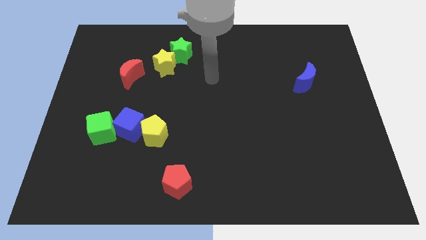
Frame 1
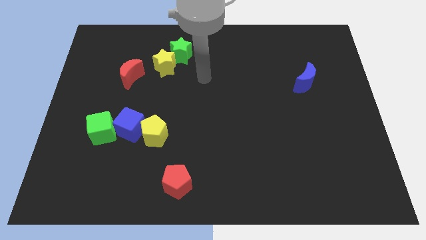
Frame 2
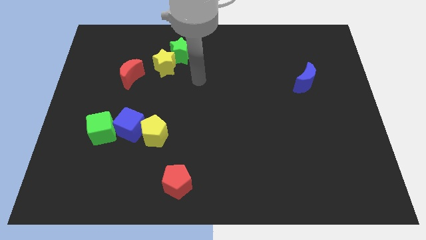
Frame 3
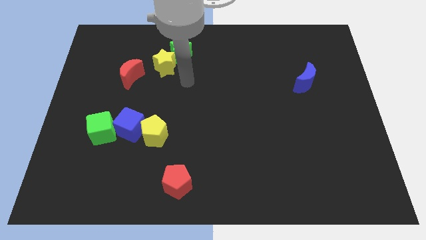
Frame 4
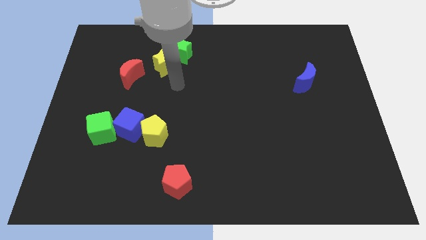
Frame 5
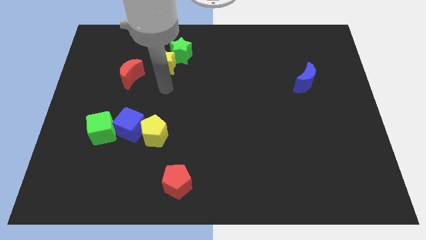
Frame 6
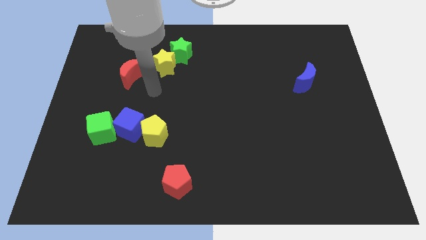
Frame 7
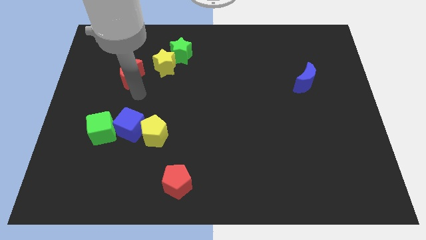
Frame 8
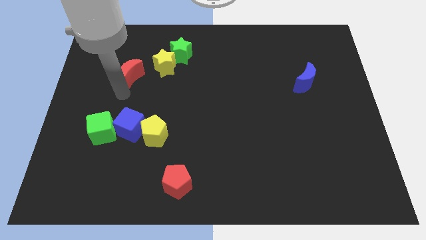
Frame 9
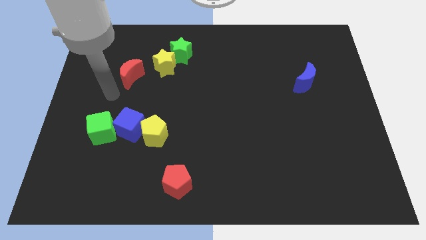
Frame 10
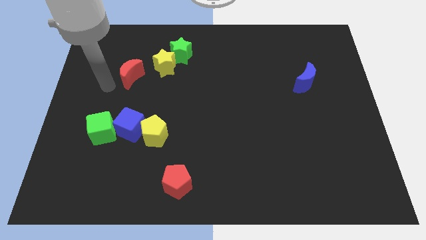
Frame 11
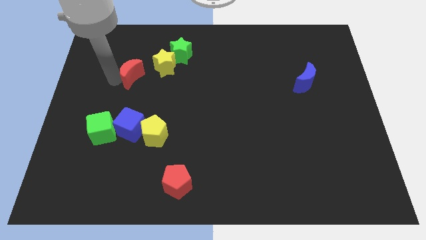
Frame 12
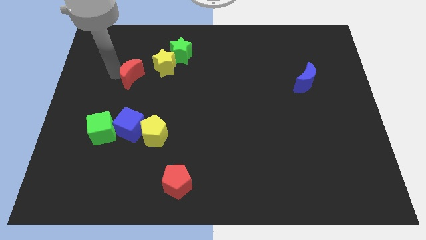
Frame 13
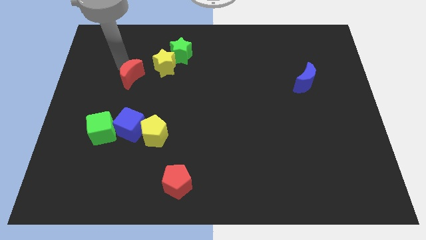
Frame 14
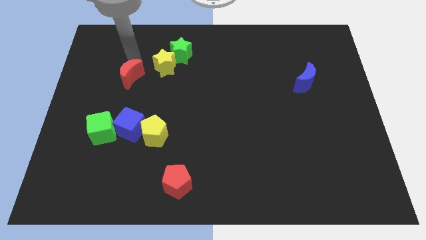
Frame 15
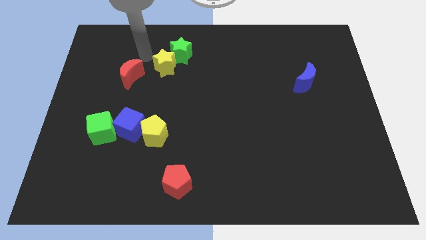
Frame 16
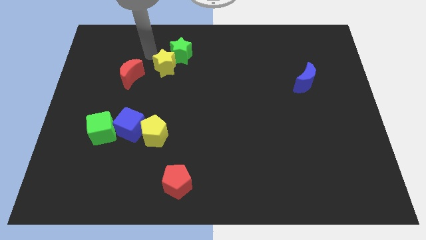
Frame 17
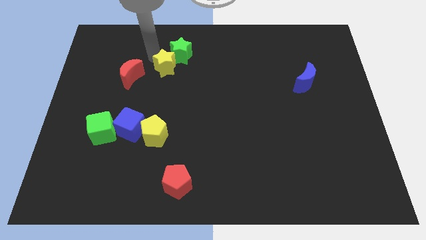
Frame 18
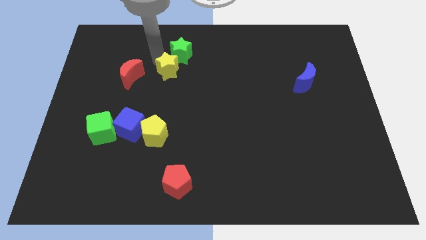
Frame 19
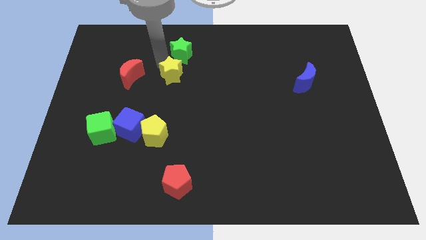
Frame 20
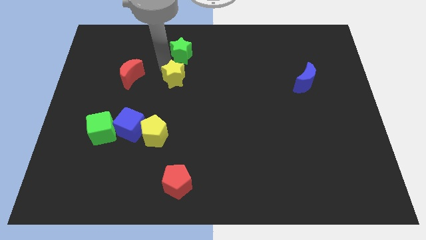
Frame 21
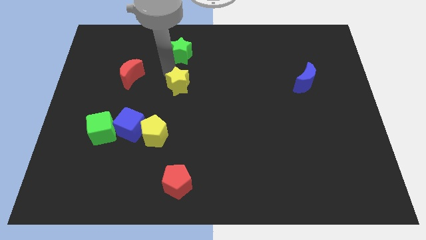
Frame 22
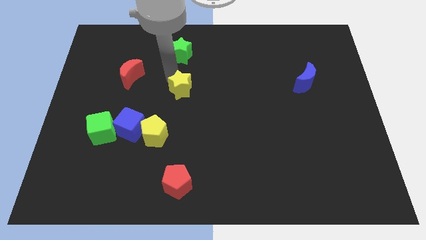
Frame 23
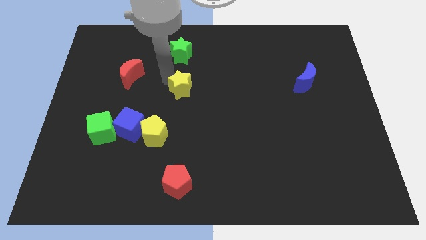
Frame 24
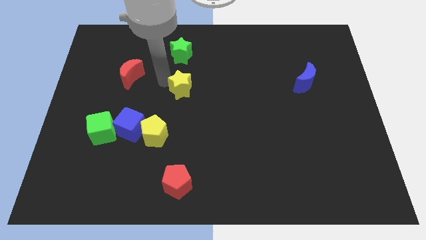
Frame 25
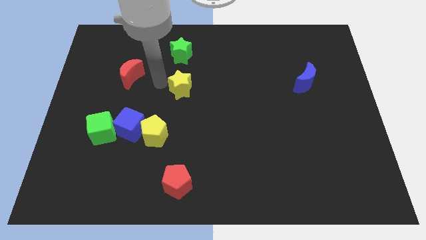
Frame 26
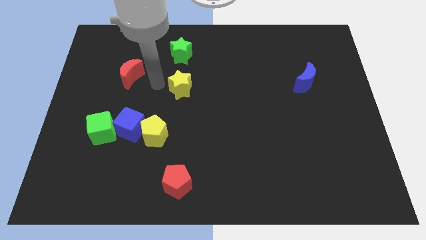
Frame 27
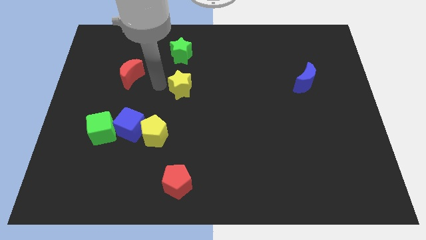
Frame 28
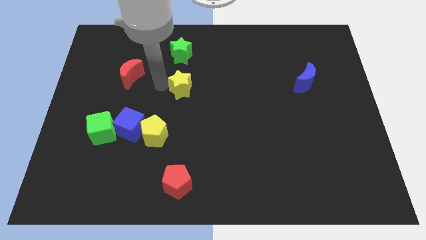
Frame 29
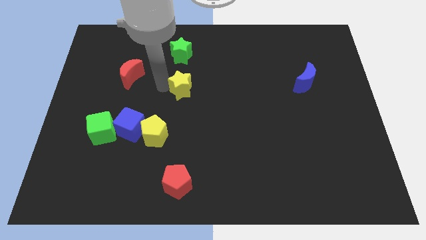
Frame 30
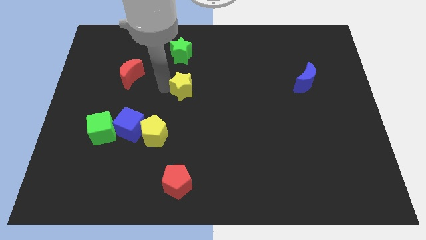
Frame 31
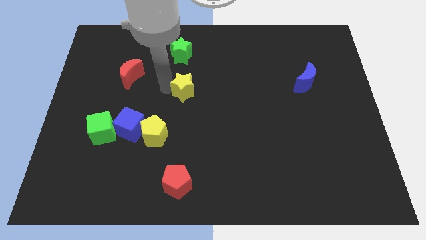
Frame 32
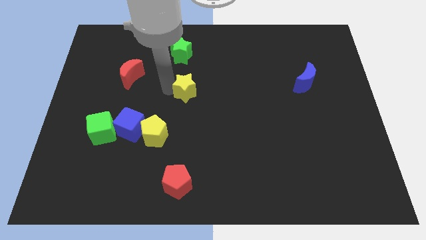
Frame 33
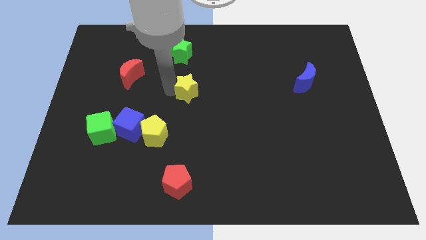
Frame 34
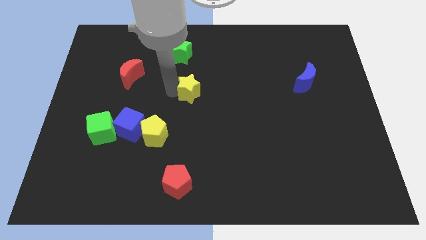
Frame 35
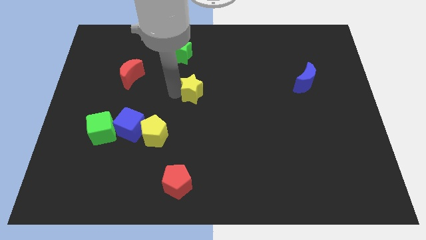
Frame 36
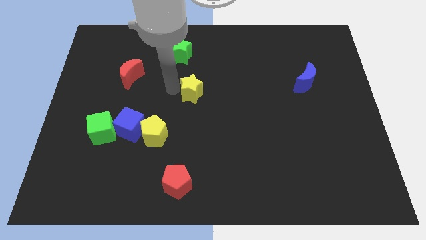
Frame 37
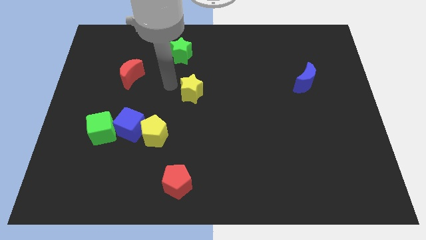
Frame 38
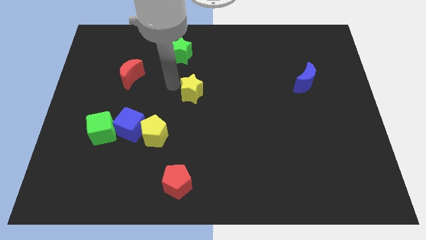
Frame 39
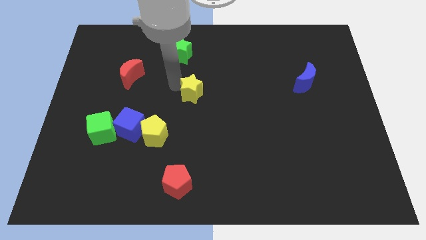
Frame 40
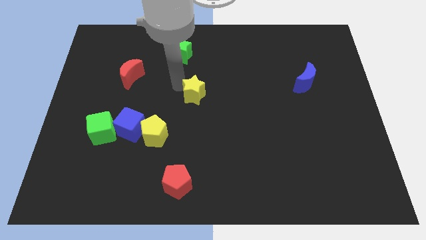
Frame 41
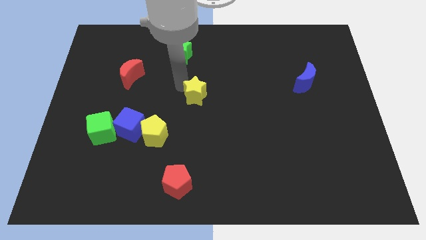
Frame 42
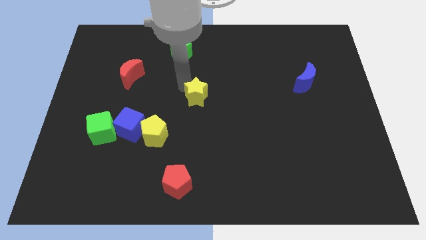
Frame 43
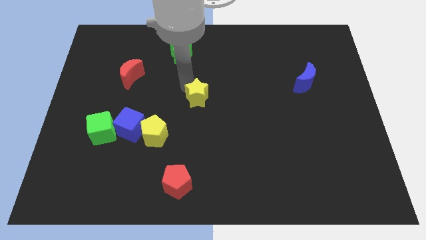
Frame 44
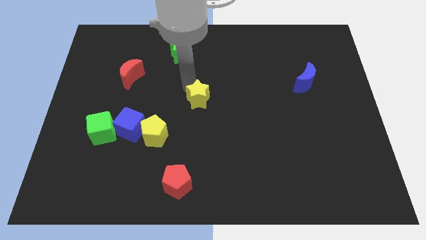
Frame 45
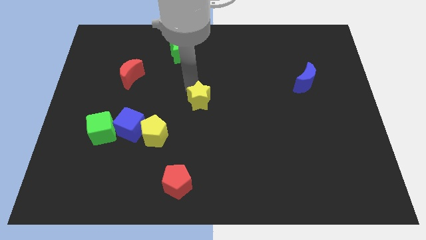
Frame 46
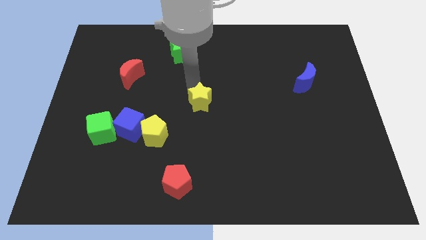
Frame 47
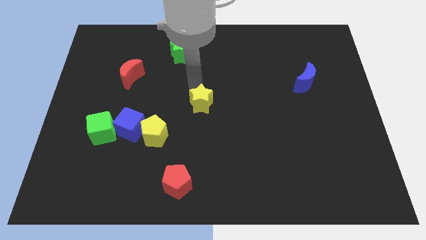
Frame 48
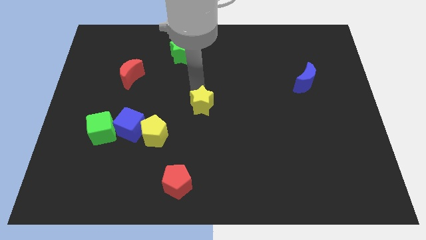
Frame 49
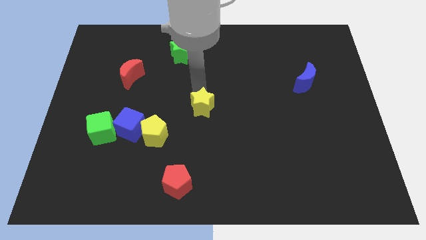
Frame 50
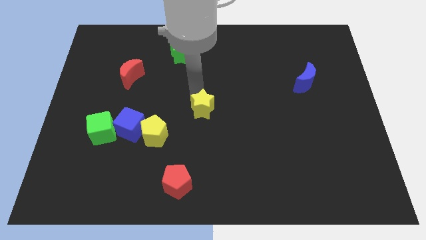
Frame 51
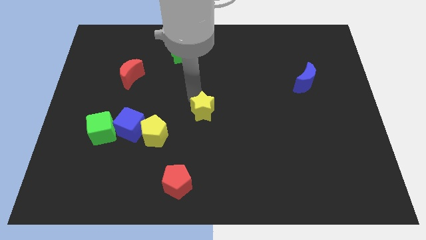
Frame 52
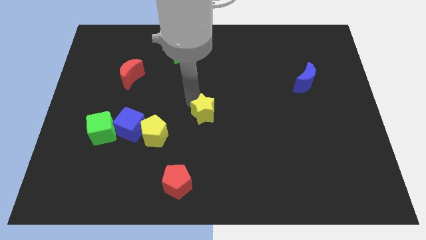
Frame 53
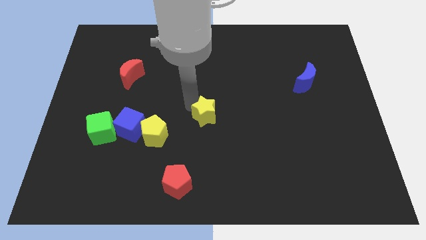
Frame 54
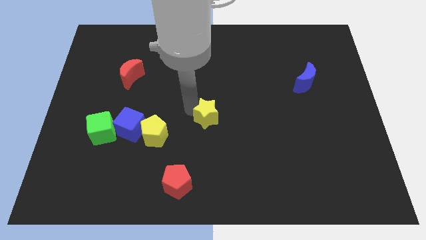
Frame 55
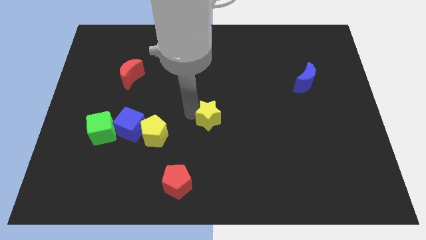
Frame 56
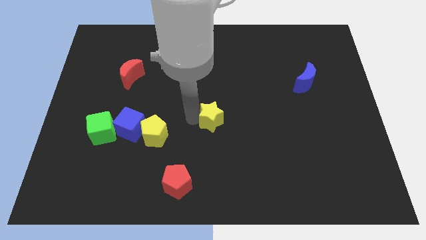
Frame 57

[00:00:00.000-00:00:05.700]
slide the yellow star diagonally down and right

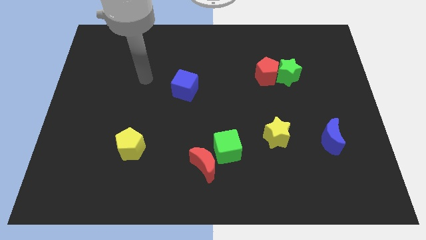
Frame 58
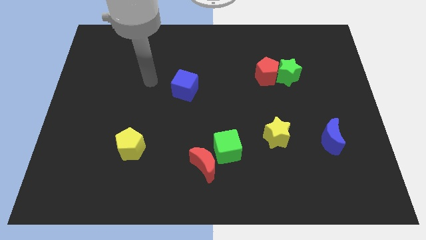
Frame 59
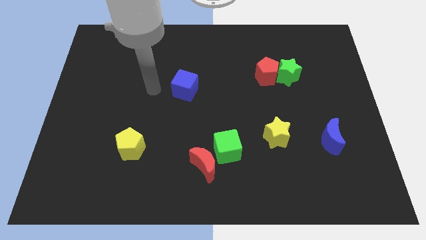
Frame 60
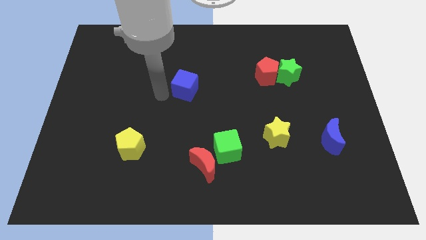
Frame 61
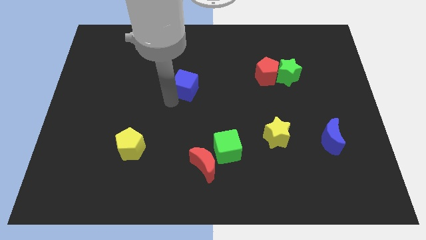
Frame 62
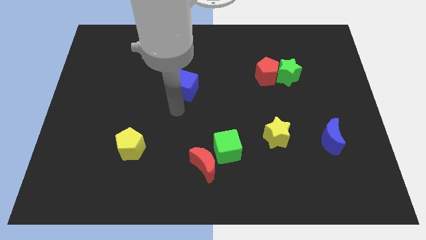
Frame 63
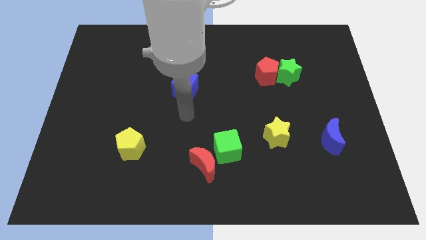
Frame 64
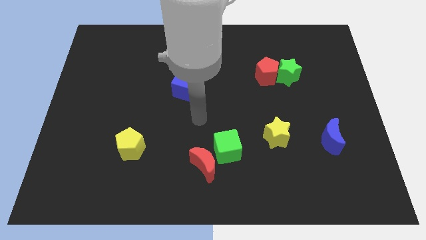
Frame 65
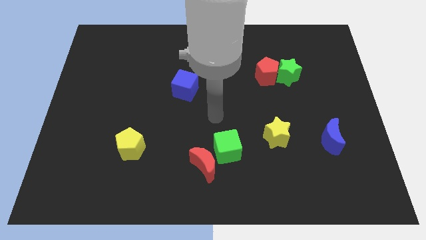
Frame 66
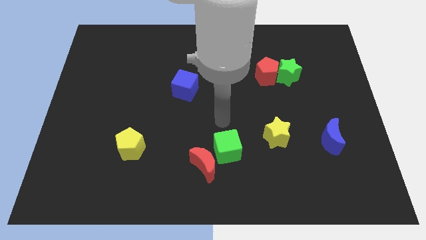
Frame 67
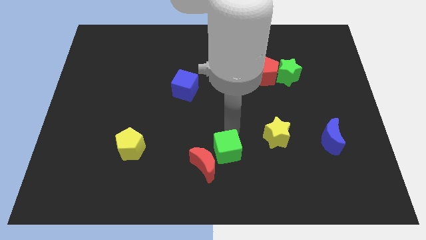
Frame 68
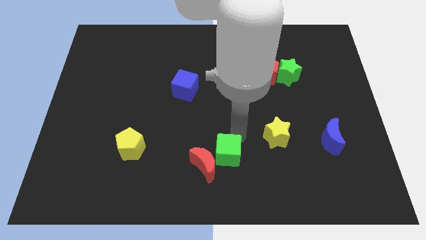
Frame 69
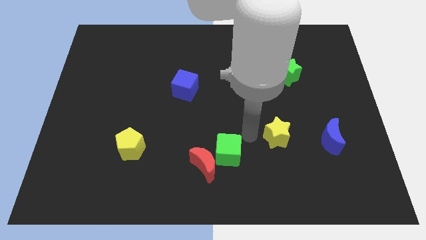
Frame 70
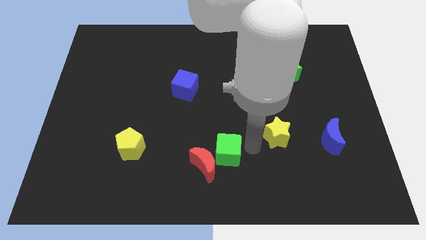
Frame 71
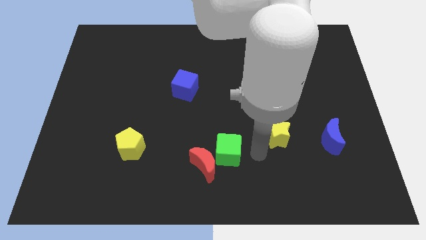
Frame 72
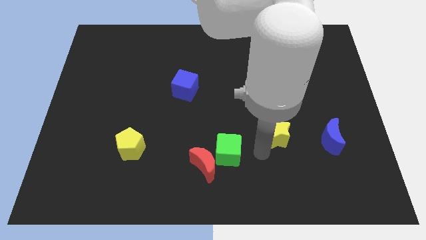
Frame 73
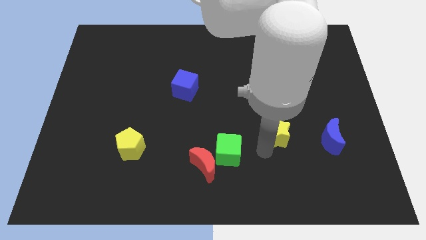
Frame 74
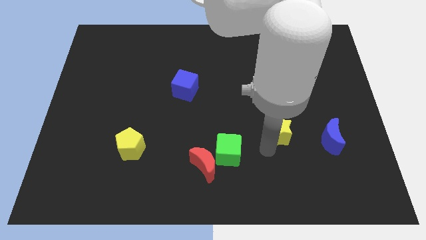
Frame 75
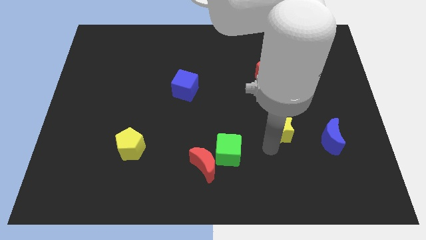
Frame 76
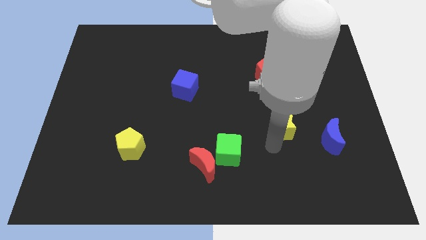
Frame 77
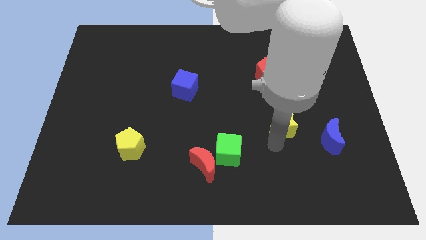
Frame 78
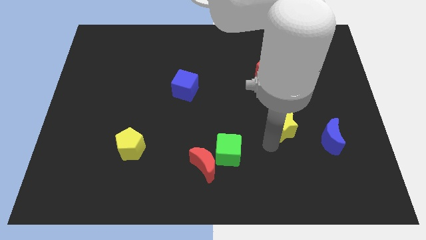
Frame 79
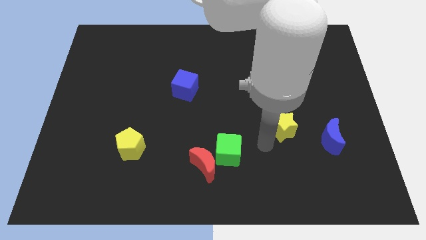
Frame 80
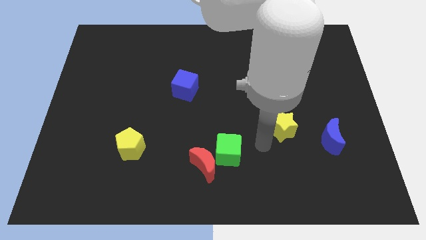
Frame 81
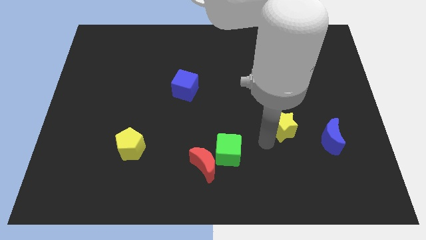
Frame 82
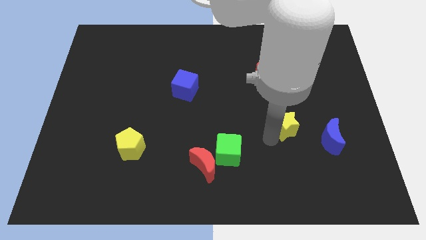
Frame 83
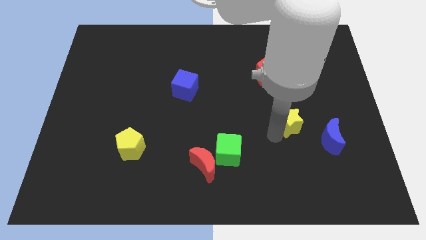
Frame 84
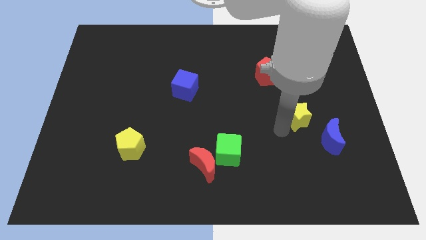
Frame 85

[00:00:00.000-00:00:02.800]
slide the yellow star up and then right somewhat
